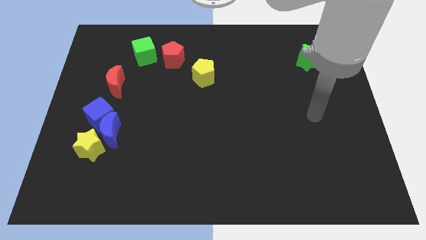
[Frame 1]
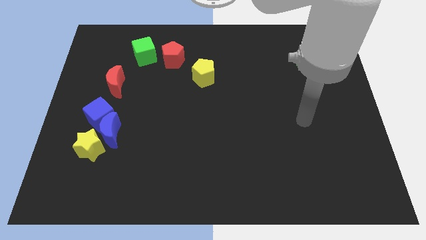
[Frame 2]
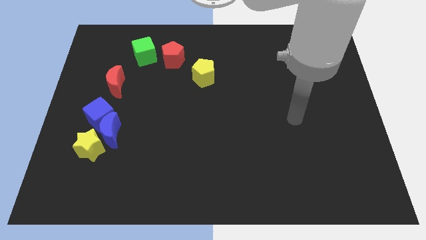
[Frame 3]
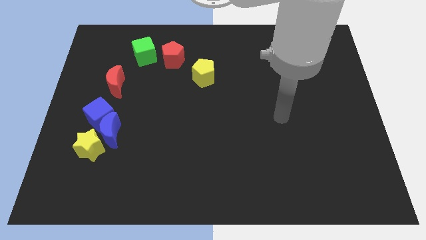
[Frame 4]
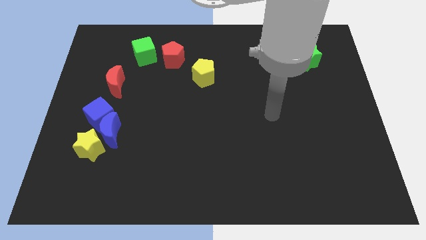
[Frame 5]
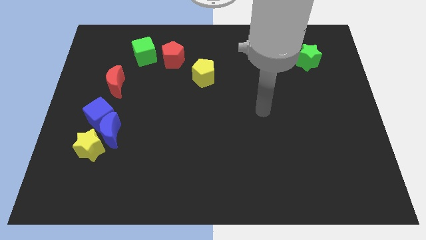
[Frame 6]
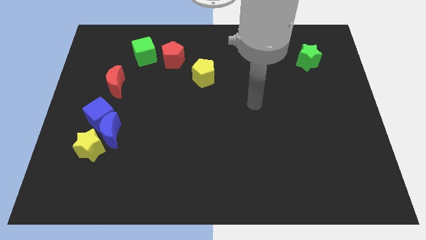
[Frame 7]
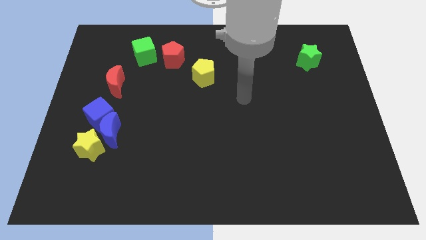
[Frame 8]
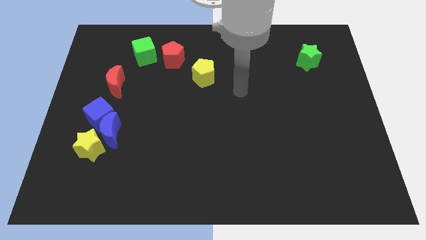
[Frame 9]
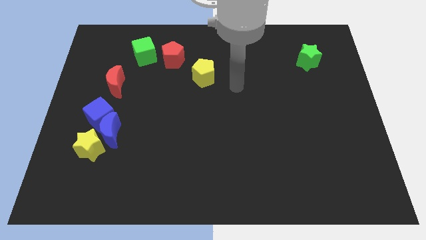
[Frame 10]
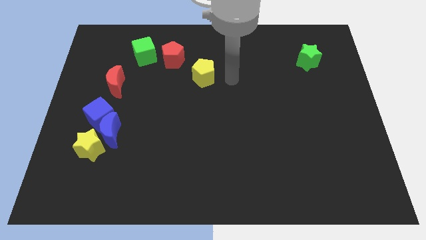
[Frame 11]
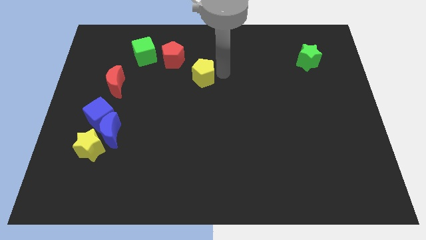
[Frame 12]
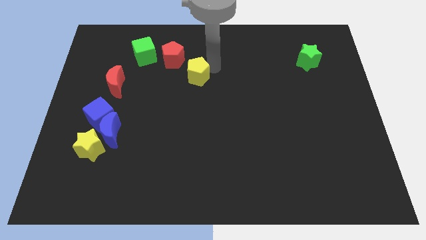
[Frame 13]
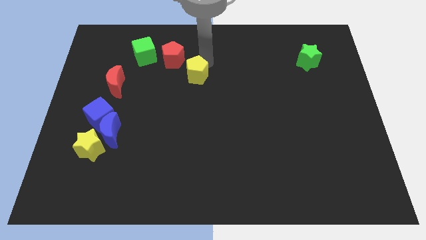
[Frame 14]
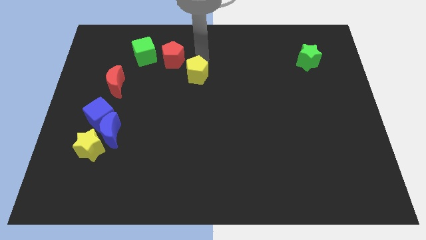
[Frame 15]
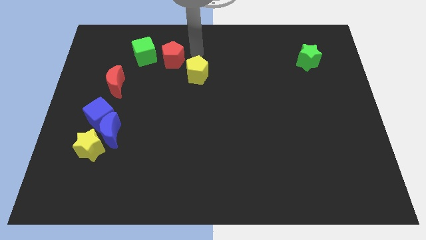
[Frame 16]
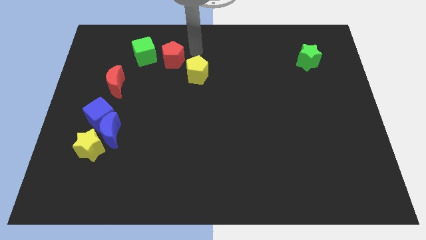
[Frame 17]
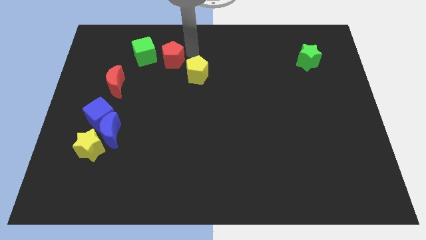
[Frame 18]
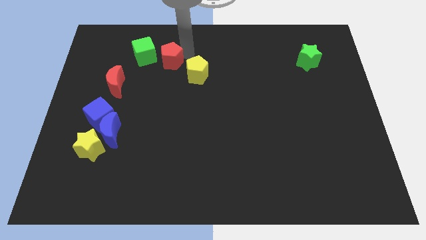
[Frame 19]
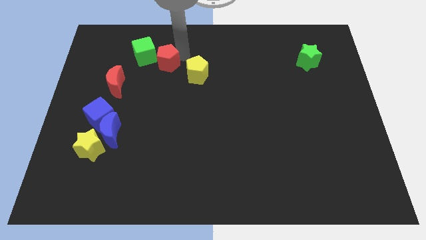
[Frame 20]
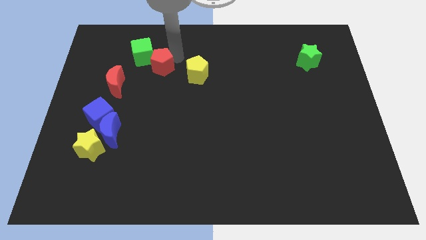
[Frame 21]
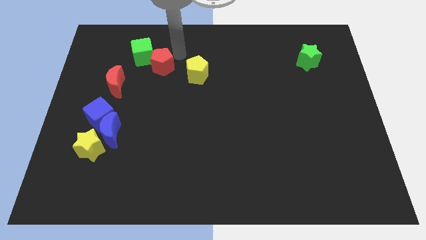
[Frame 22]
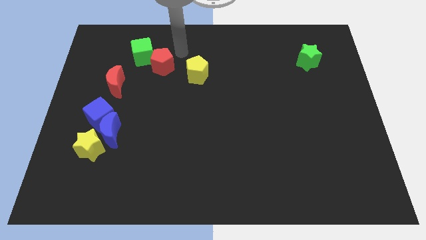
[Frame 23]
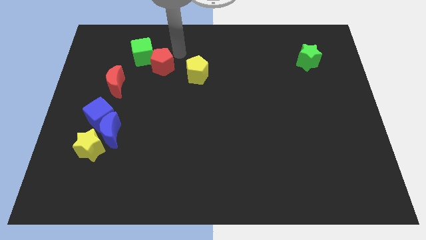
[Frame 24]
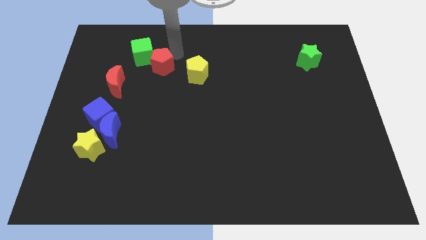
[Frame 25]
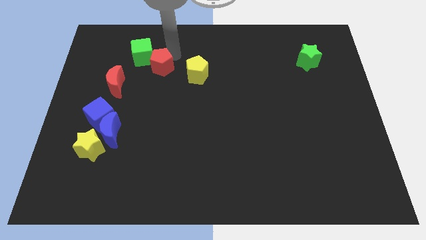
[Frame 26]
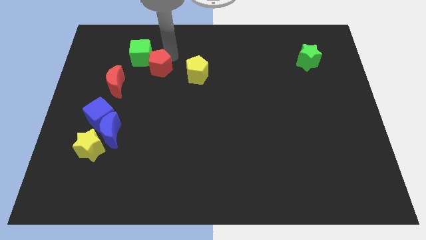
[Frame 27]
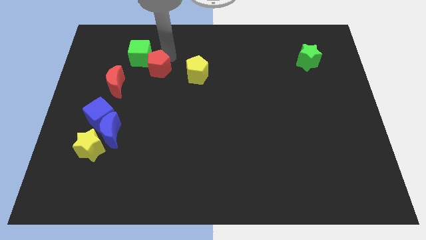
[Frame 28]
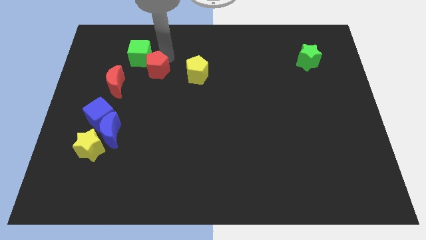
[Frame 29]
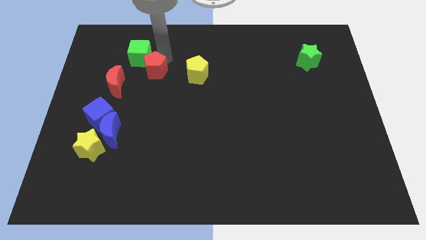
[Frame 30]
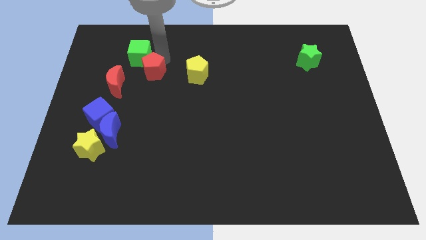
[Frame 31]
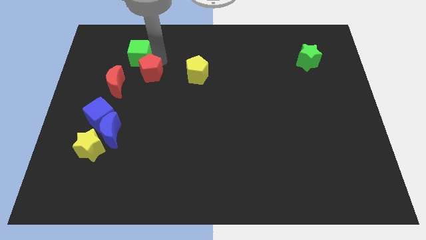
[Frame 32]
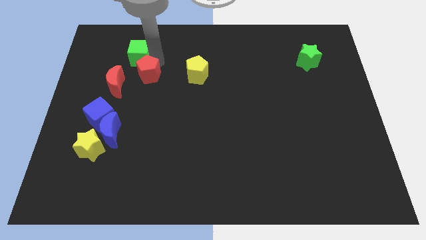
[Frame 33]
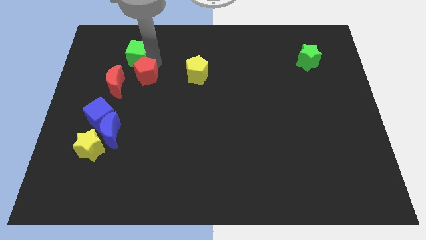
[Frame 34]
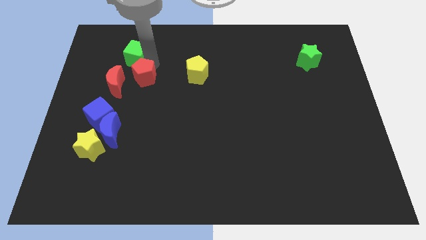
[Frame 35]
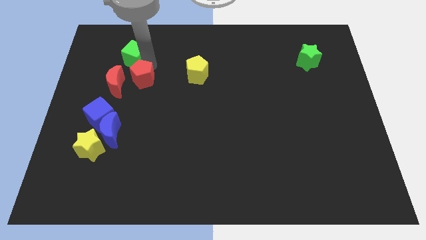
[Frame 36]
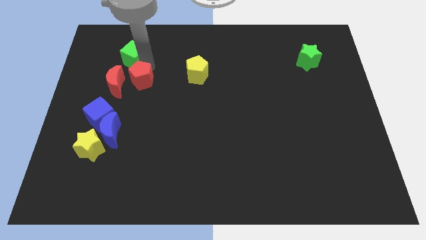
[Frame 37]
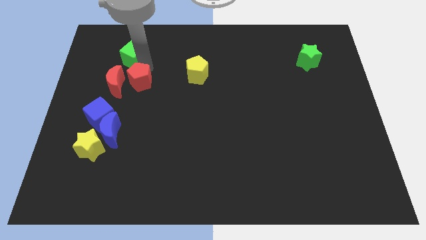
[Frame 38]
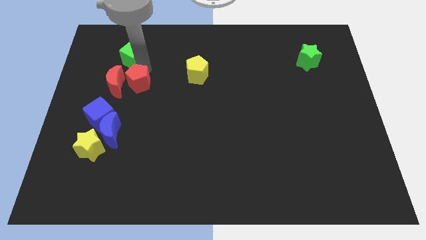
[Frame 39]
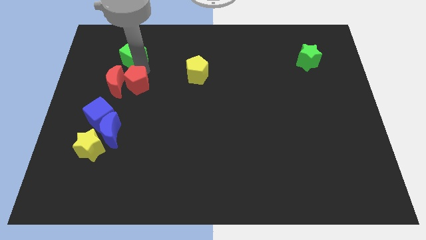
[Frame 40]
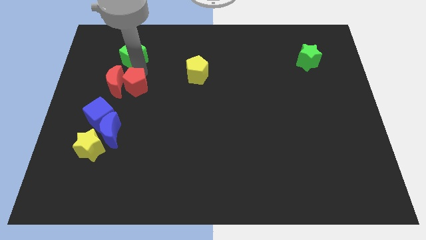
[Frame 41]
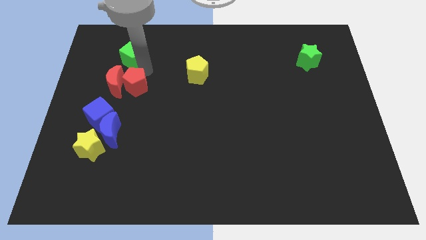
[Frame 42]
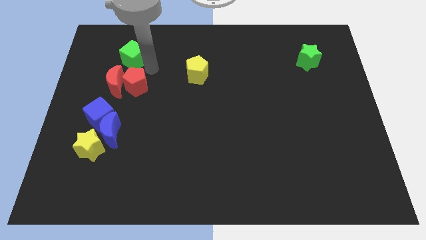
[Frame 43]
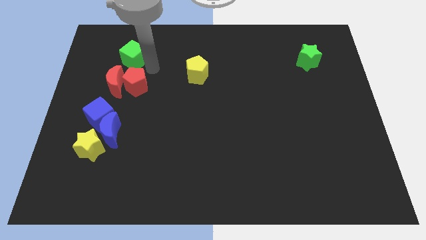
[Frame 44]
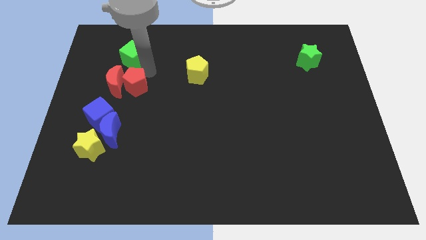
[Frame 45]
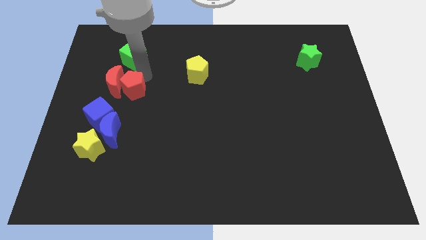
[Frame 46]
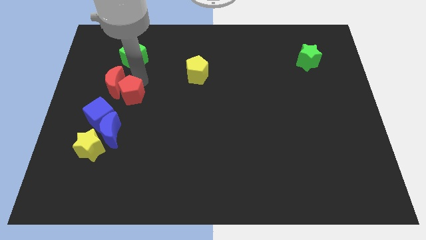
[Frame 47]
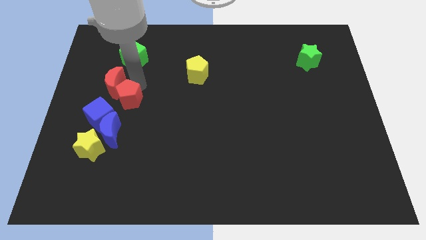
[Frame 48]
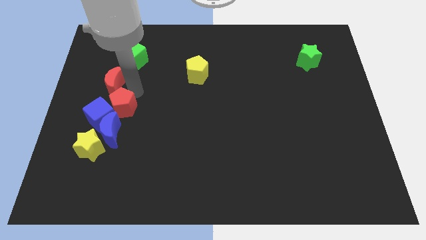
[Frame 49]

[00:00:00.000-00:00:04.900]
push the red pentagon towards the blue cube

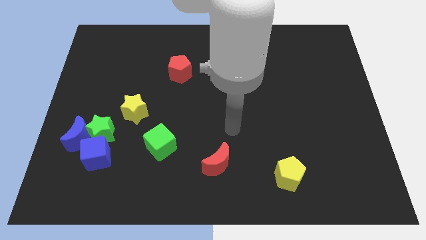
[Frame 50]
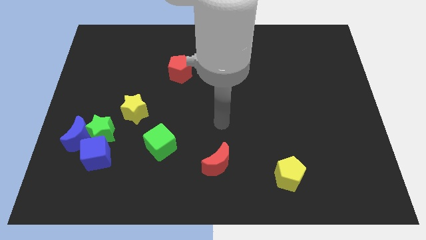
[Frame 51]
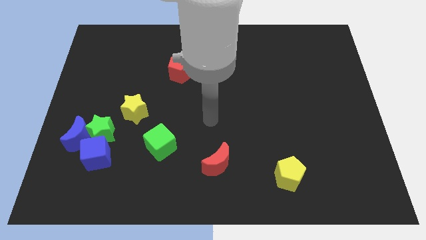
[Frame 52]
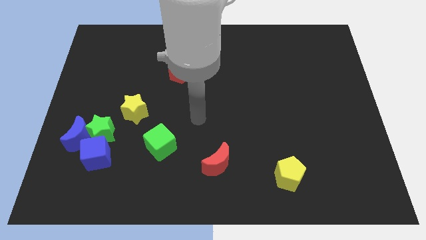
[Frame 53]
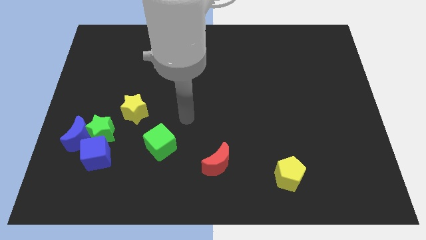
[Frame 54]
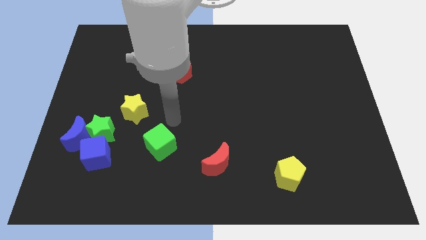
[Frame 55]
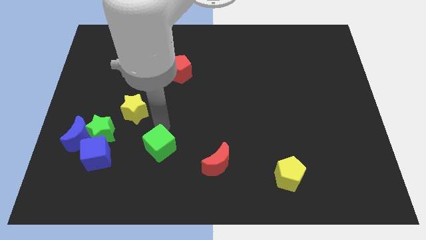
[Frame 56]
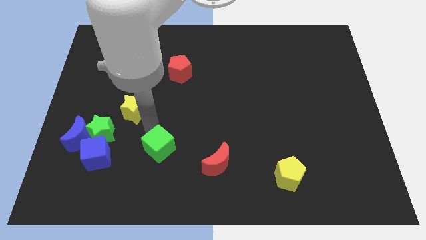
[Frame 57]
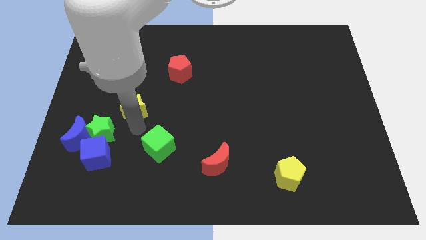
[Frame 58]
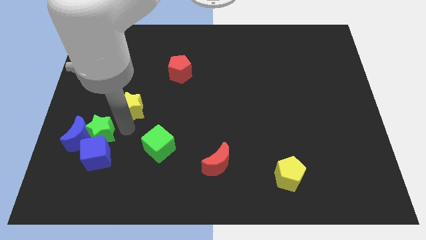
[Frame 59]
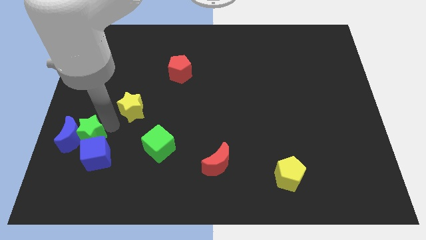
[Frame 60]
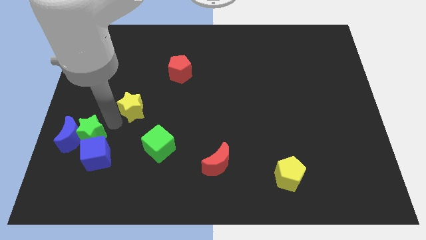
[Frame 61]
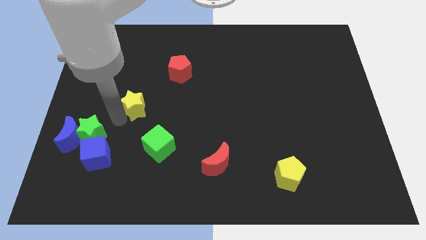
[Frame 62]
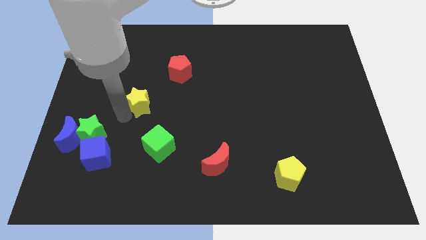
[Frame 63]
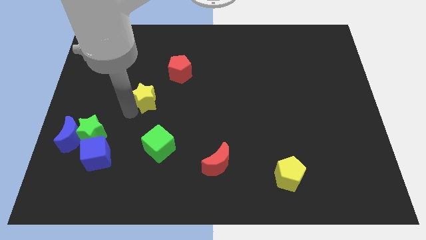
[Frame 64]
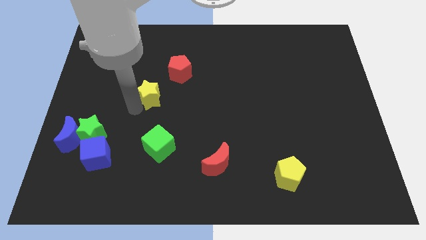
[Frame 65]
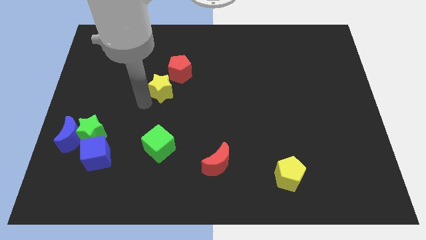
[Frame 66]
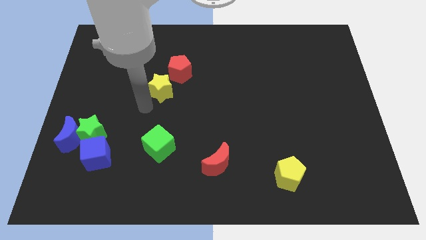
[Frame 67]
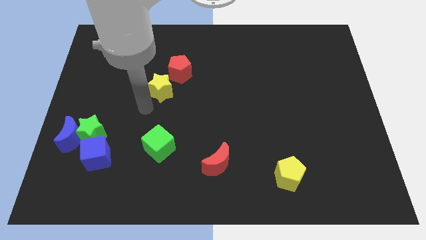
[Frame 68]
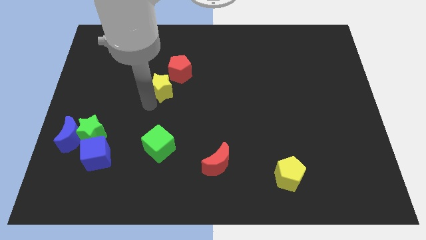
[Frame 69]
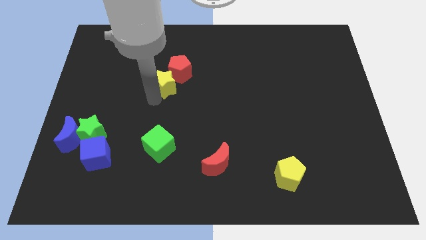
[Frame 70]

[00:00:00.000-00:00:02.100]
push the yellow star to the red pentagon

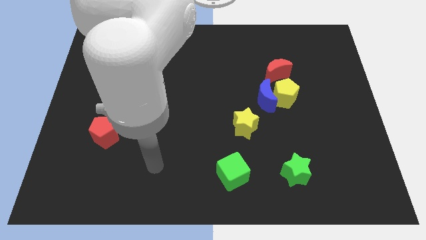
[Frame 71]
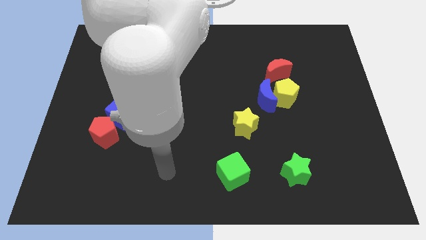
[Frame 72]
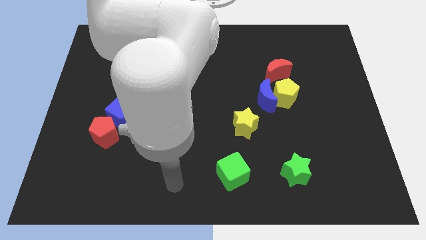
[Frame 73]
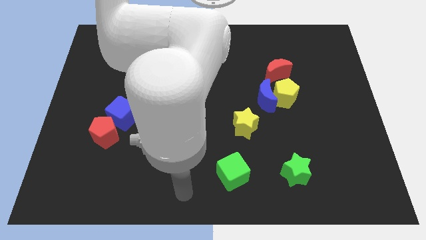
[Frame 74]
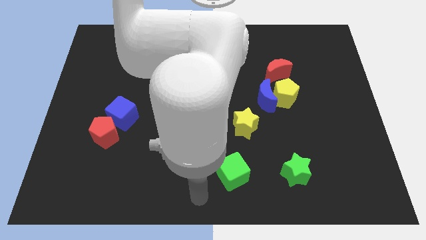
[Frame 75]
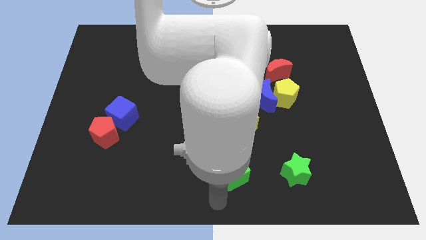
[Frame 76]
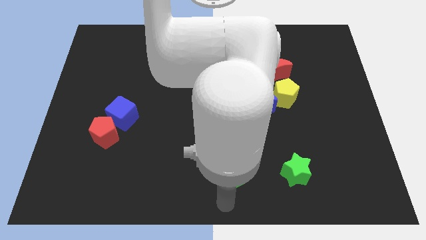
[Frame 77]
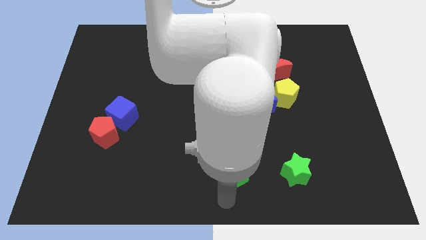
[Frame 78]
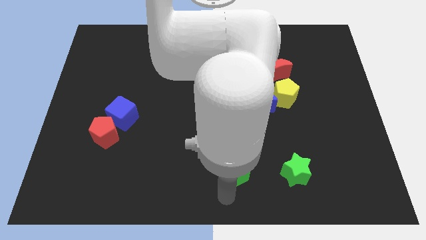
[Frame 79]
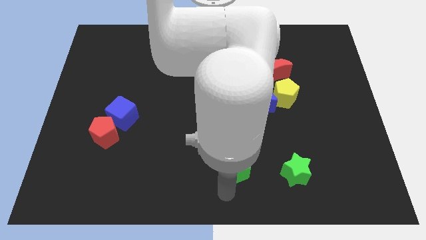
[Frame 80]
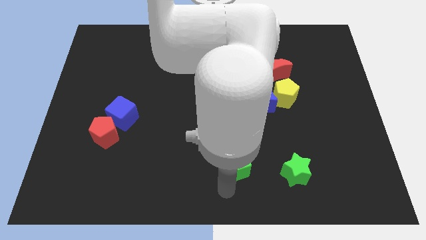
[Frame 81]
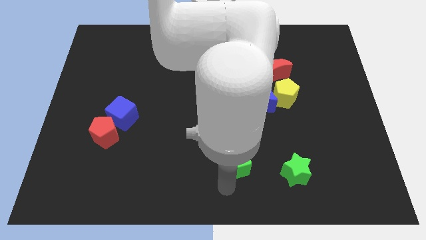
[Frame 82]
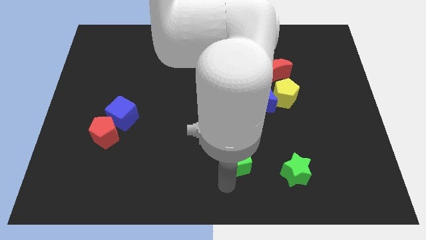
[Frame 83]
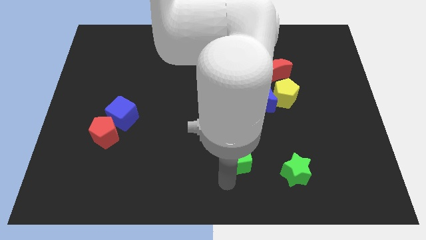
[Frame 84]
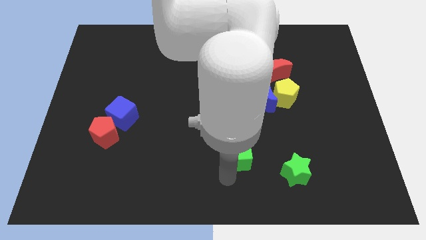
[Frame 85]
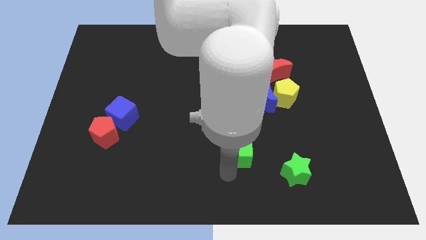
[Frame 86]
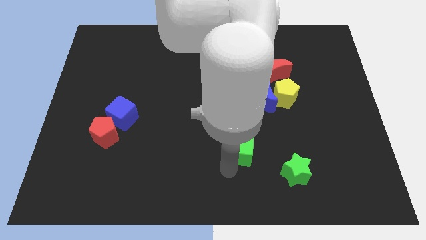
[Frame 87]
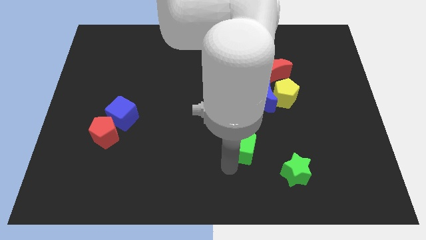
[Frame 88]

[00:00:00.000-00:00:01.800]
slide the green cube towards the yellow star
